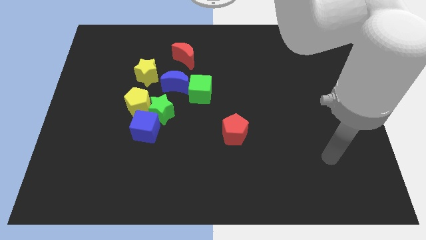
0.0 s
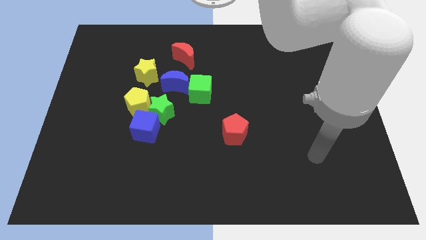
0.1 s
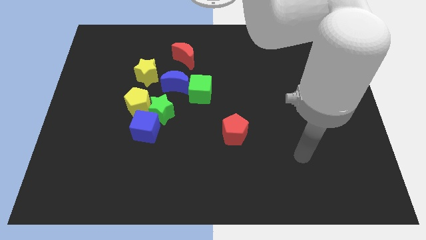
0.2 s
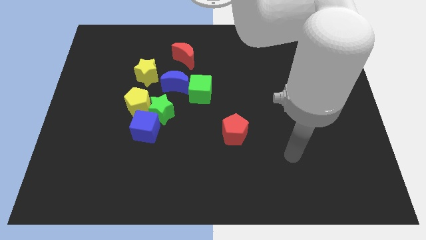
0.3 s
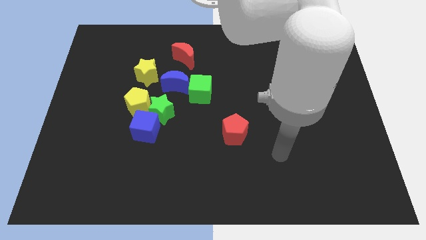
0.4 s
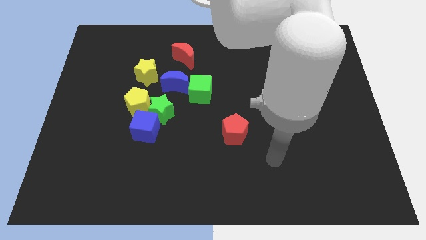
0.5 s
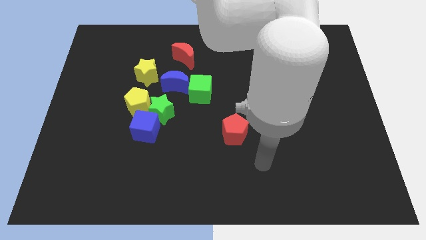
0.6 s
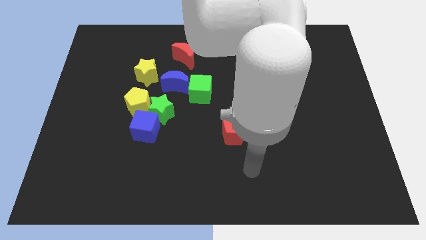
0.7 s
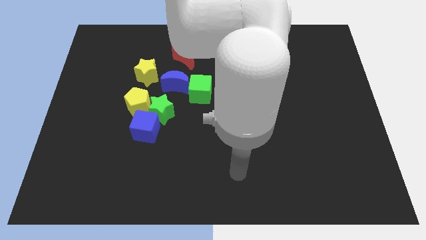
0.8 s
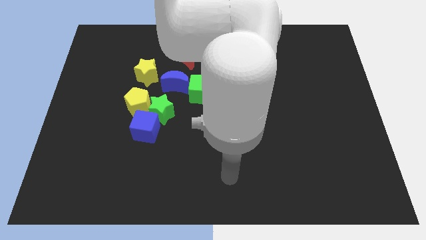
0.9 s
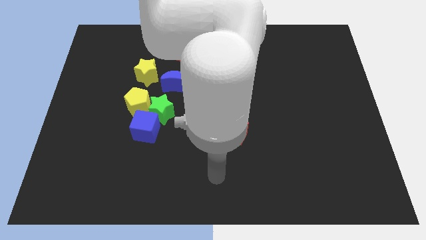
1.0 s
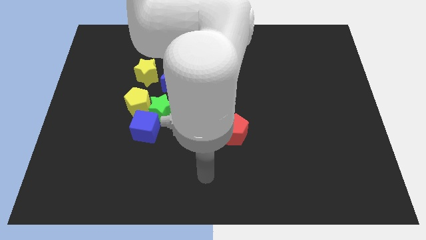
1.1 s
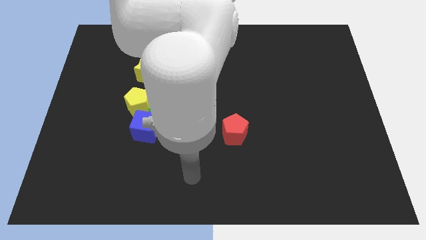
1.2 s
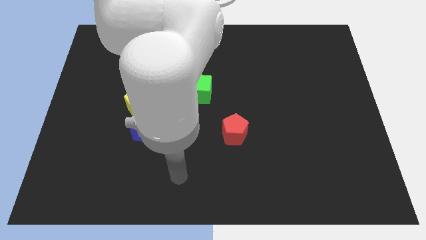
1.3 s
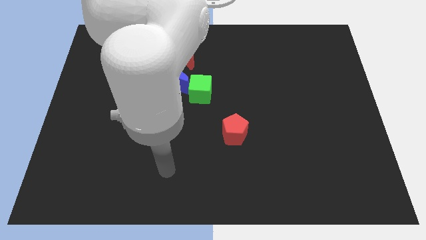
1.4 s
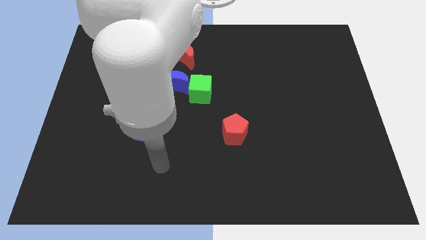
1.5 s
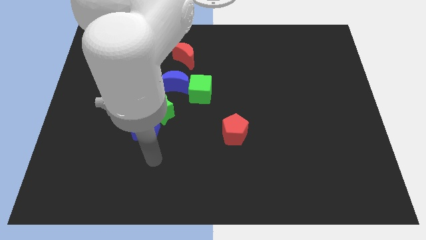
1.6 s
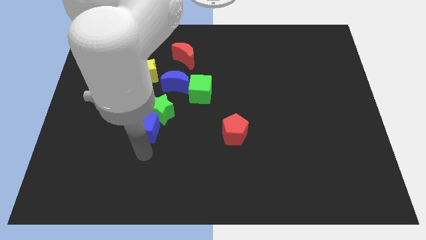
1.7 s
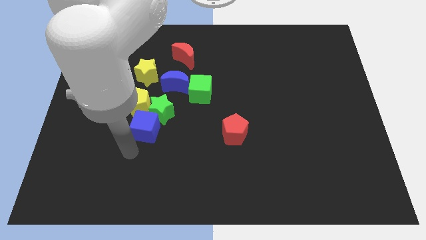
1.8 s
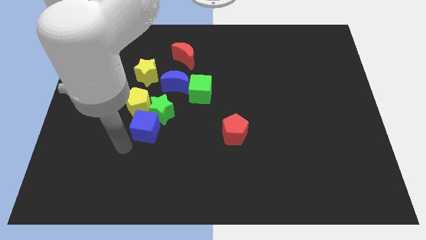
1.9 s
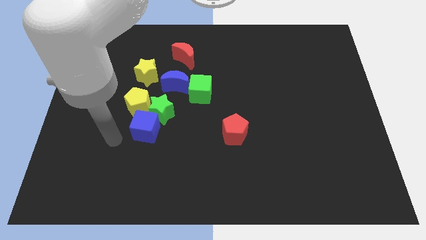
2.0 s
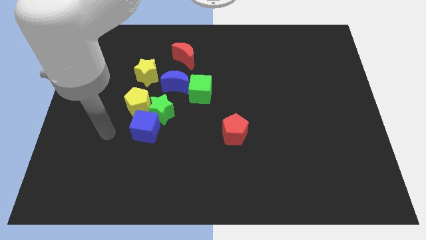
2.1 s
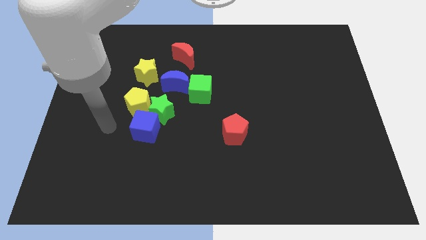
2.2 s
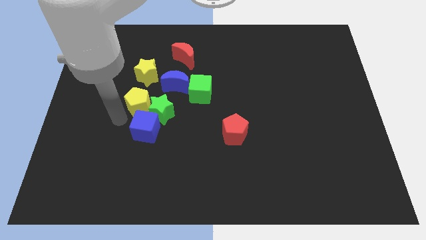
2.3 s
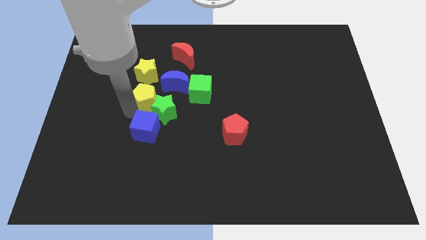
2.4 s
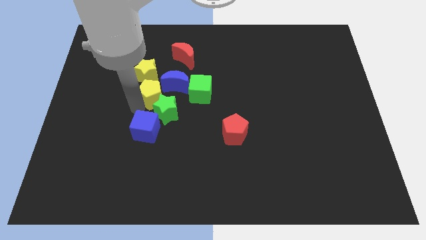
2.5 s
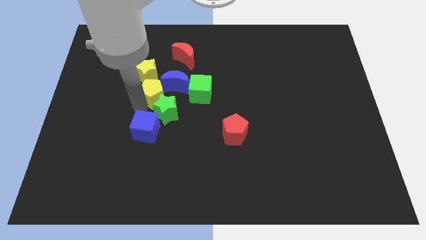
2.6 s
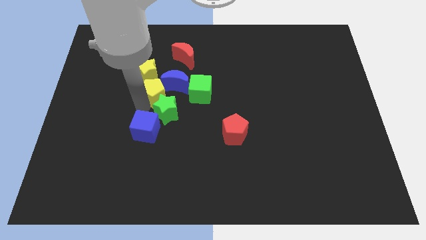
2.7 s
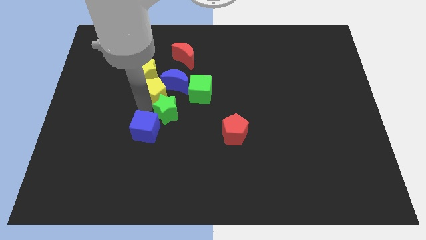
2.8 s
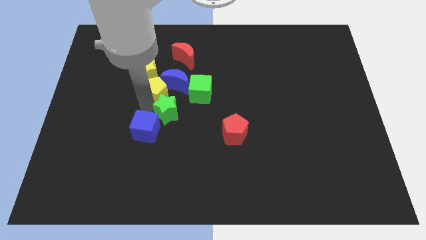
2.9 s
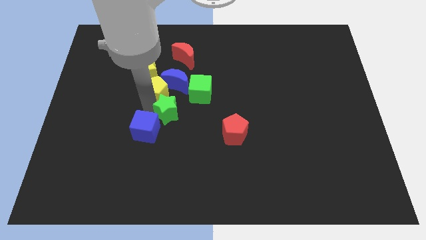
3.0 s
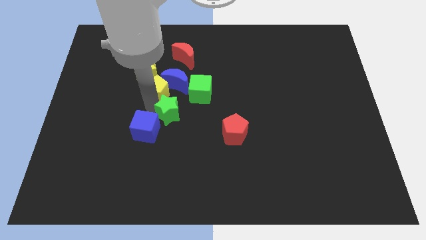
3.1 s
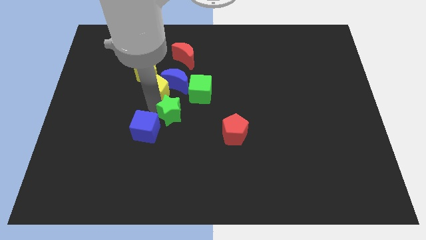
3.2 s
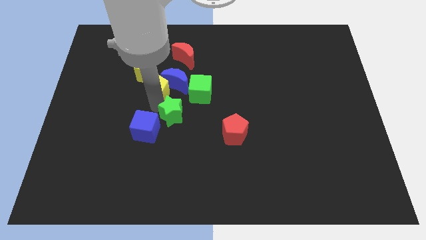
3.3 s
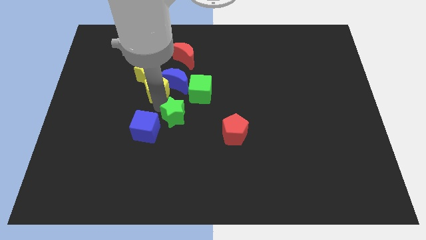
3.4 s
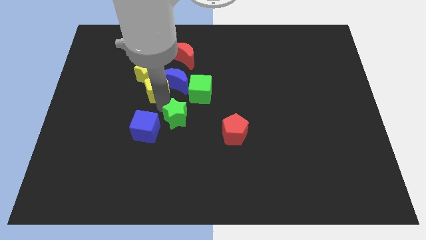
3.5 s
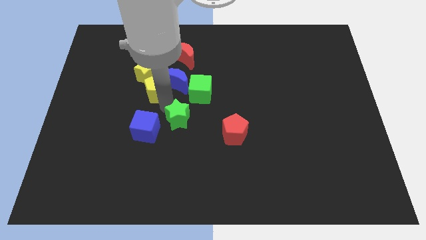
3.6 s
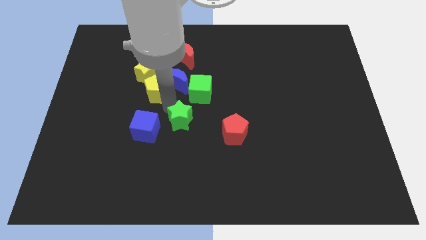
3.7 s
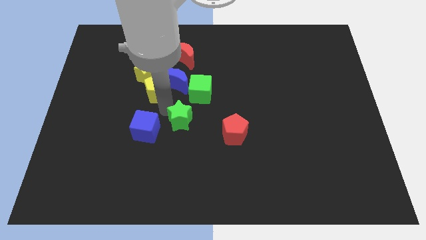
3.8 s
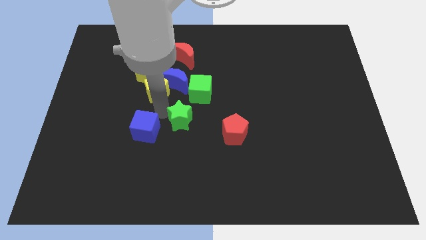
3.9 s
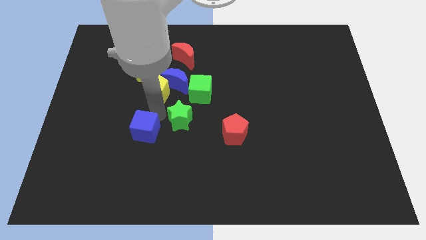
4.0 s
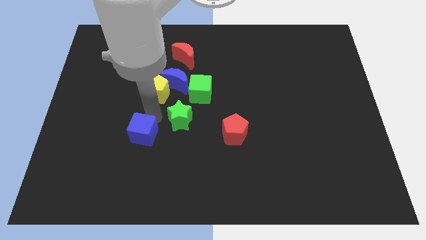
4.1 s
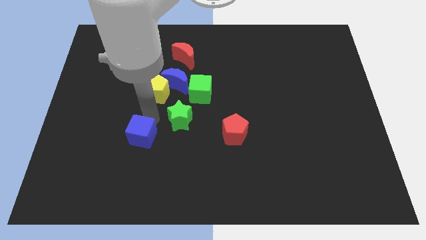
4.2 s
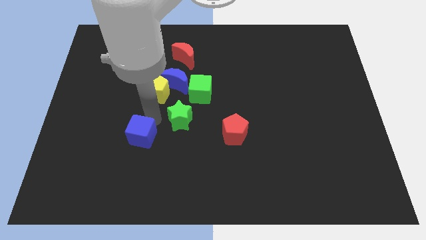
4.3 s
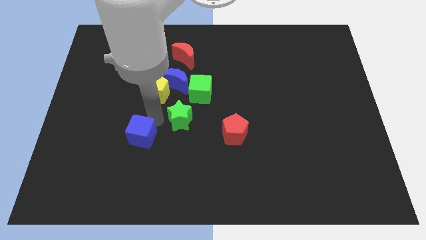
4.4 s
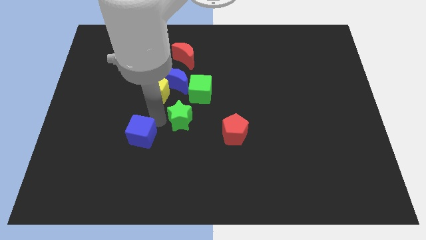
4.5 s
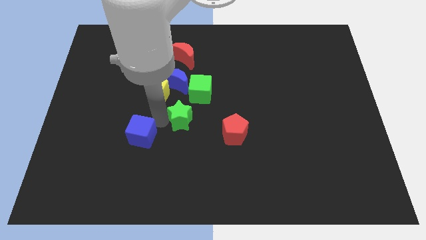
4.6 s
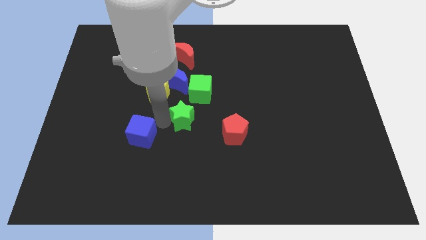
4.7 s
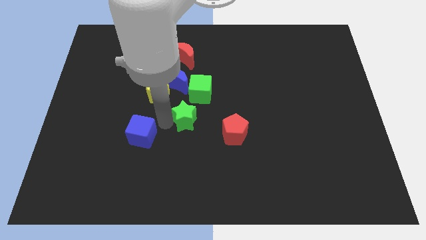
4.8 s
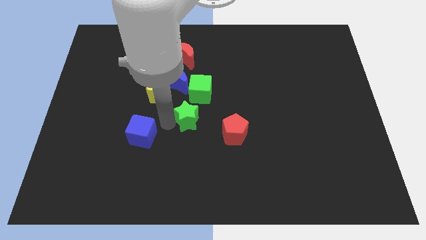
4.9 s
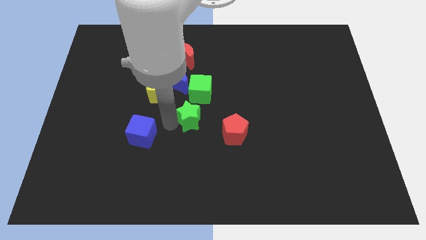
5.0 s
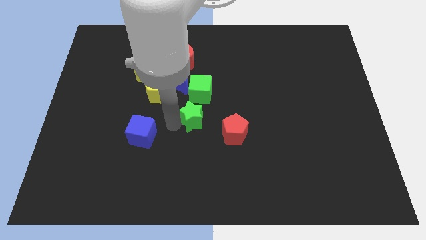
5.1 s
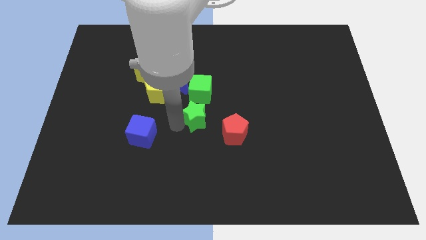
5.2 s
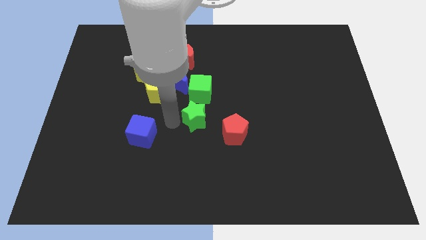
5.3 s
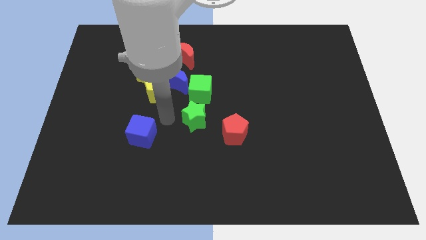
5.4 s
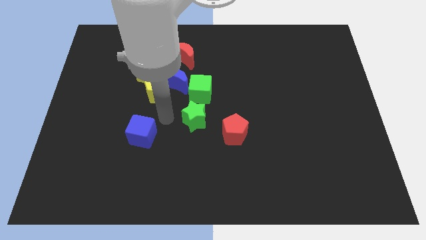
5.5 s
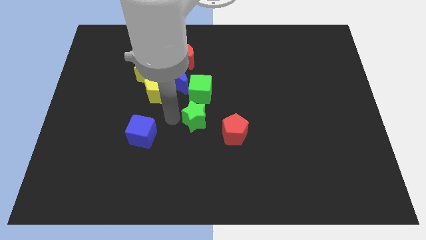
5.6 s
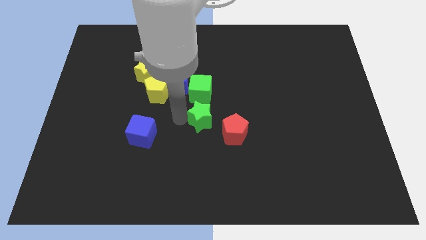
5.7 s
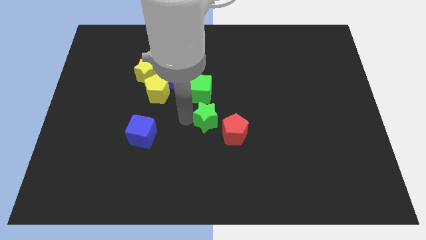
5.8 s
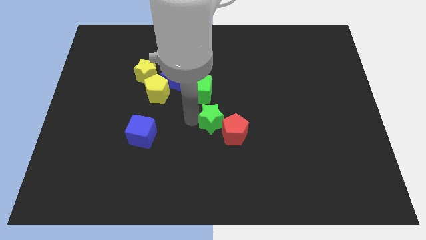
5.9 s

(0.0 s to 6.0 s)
slide the green star next to the red pentagon

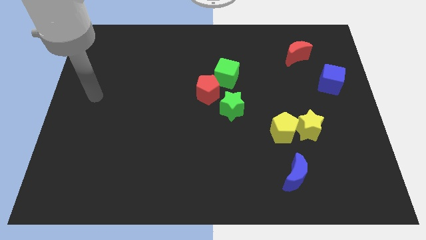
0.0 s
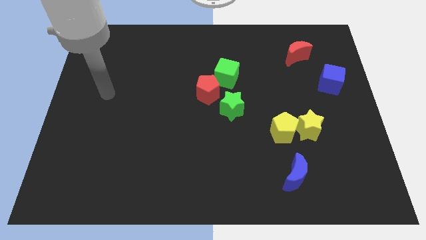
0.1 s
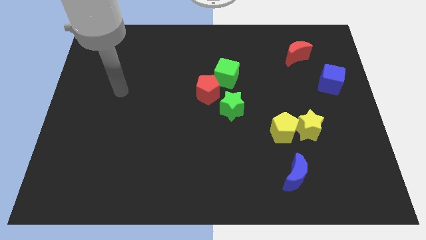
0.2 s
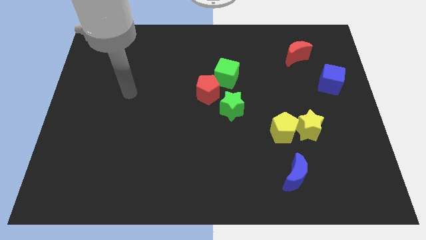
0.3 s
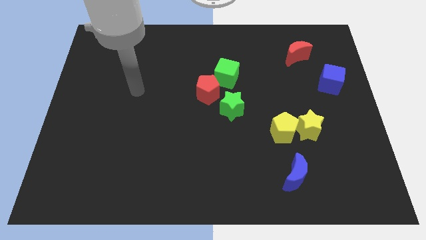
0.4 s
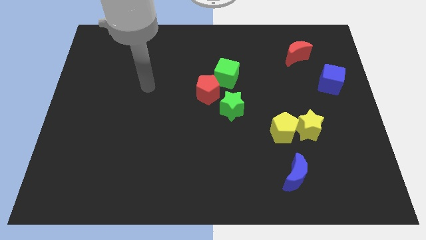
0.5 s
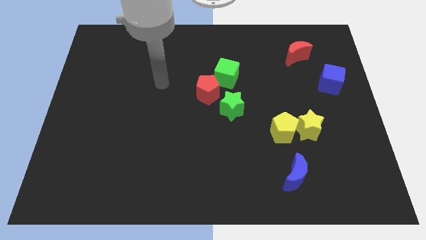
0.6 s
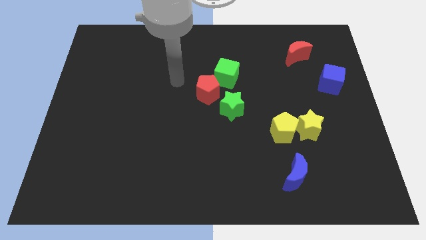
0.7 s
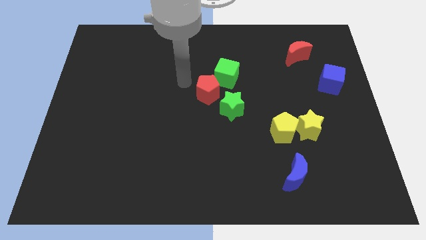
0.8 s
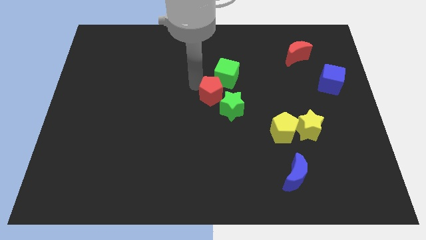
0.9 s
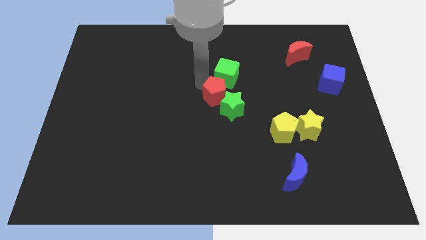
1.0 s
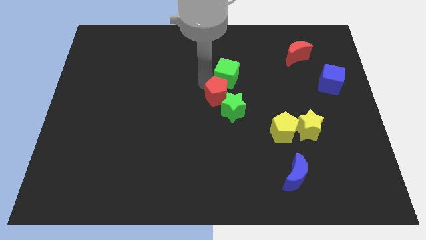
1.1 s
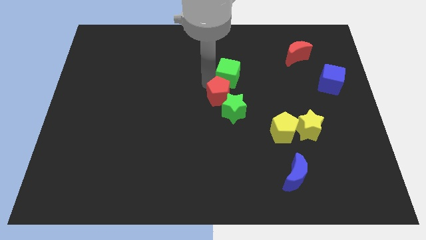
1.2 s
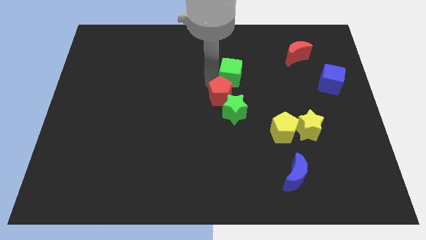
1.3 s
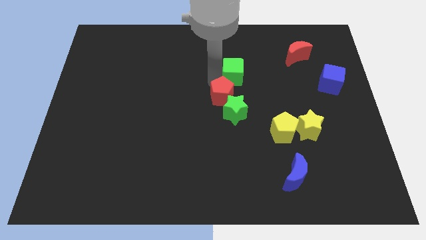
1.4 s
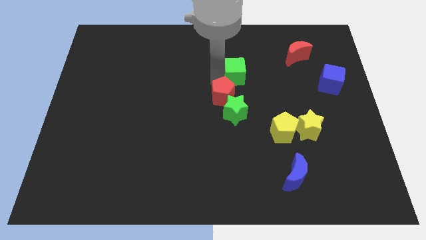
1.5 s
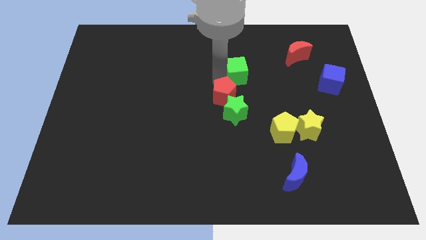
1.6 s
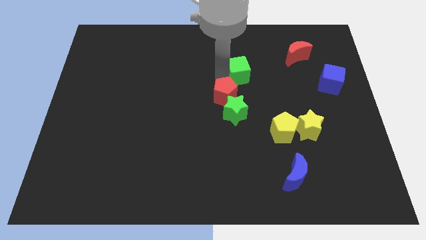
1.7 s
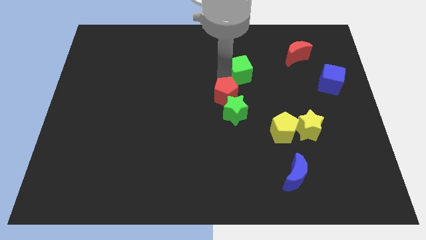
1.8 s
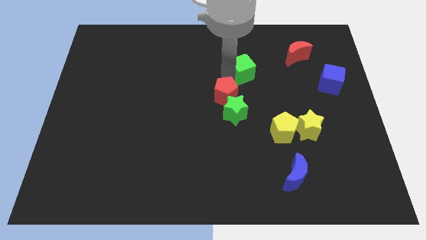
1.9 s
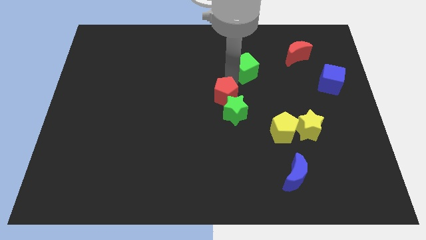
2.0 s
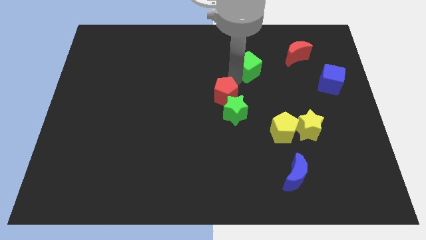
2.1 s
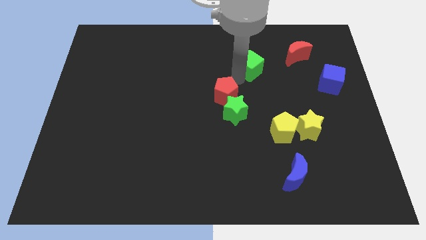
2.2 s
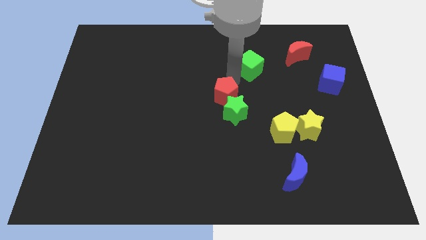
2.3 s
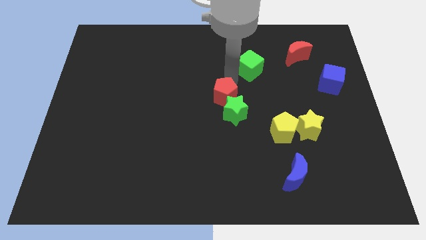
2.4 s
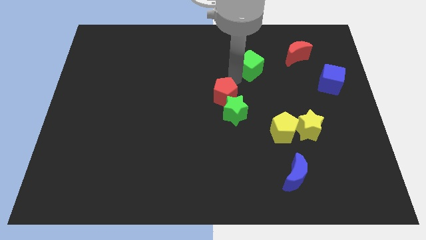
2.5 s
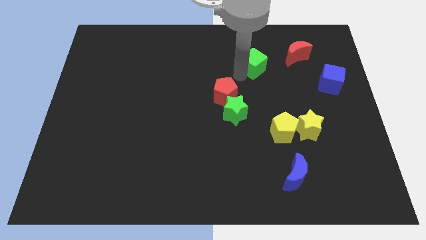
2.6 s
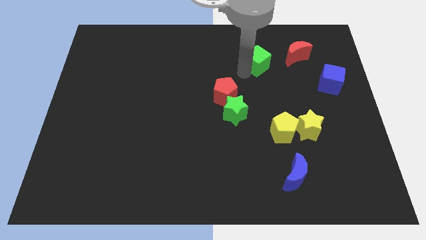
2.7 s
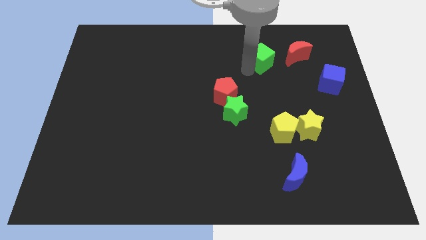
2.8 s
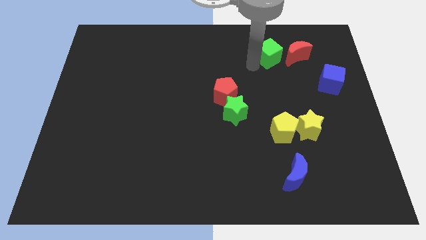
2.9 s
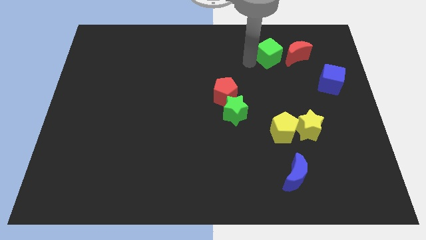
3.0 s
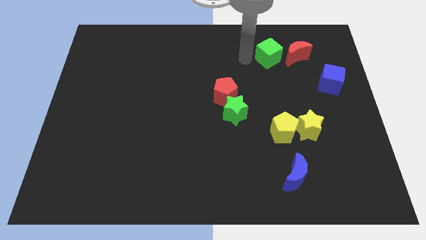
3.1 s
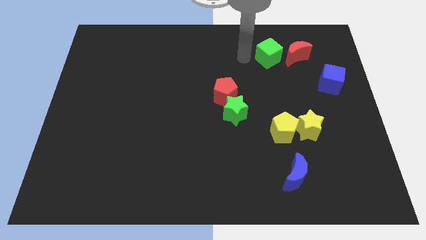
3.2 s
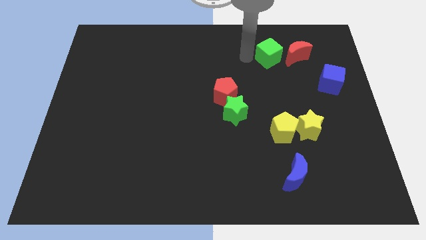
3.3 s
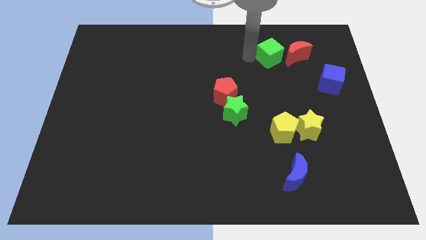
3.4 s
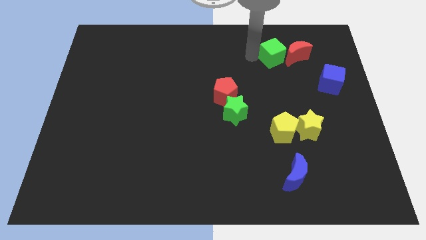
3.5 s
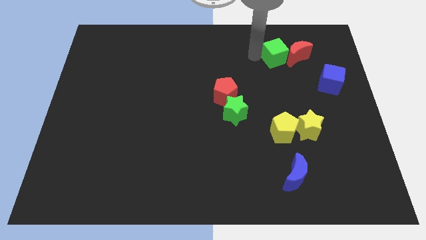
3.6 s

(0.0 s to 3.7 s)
slide the green cube next to the red moon
